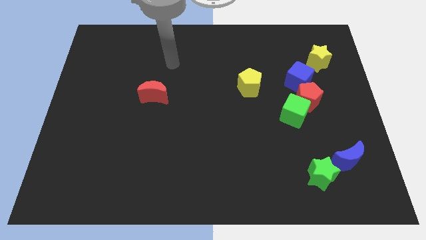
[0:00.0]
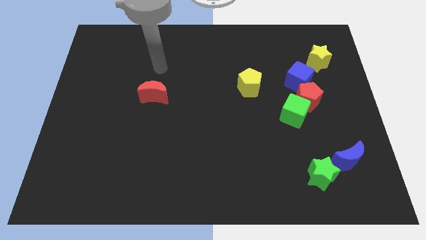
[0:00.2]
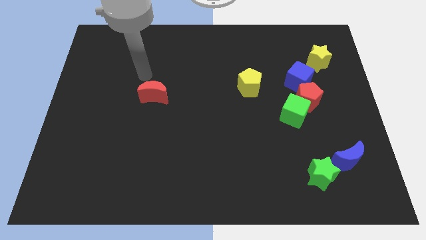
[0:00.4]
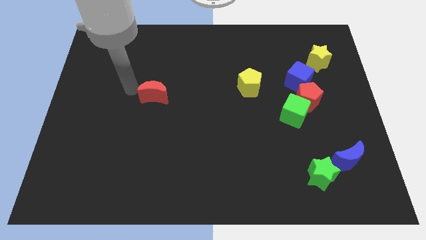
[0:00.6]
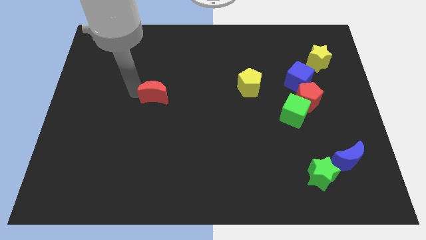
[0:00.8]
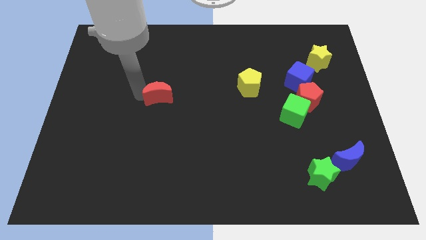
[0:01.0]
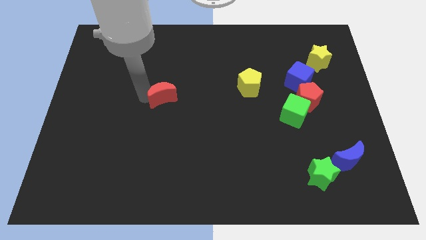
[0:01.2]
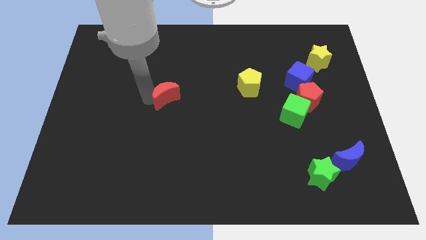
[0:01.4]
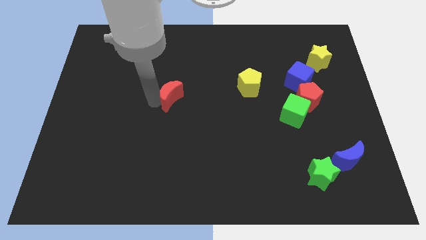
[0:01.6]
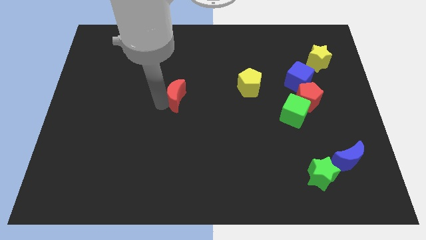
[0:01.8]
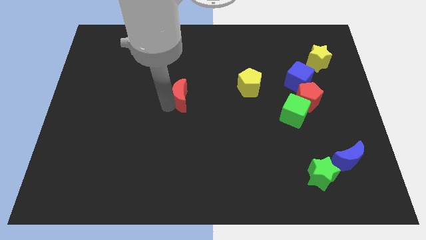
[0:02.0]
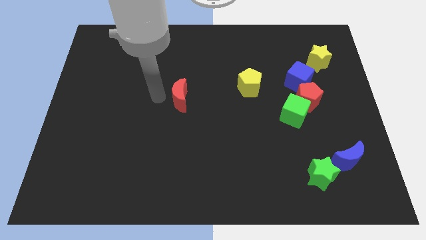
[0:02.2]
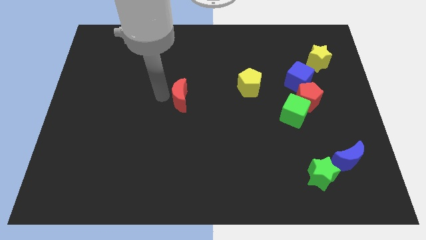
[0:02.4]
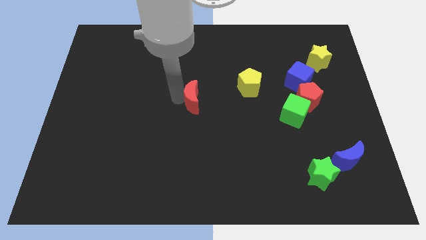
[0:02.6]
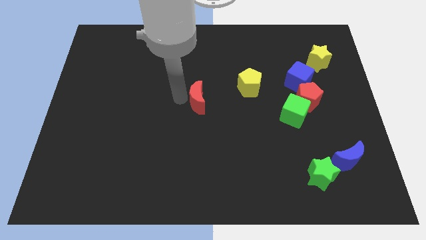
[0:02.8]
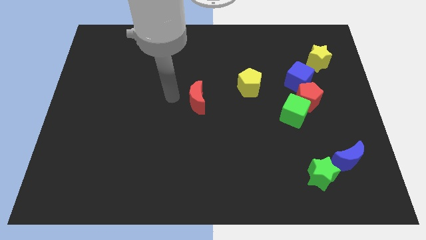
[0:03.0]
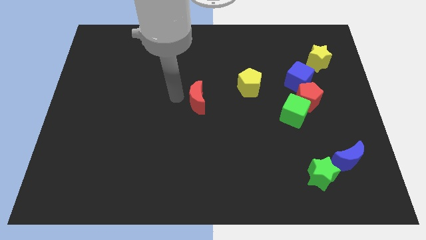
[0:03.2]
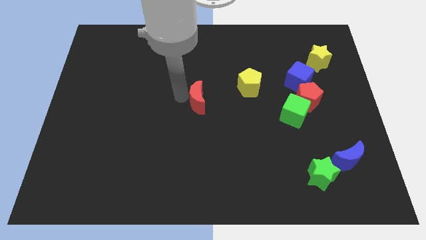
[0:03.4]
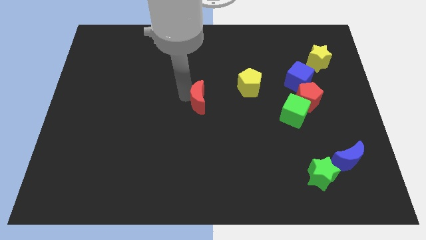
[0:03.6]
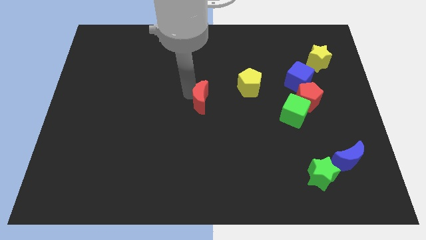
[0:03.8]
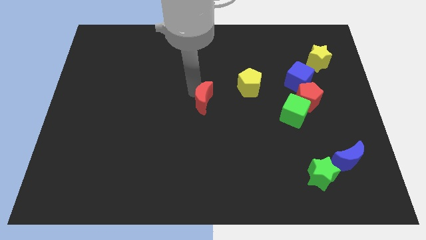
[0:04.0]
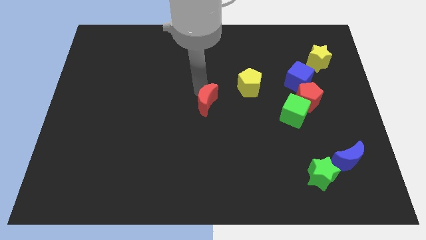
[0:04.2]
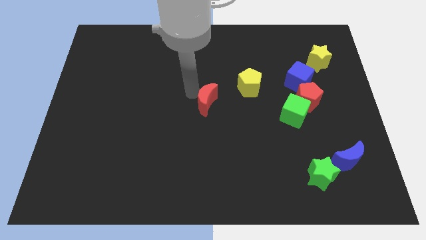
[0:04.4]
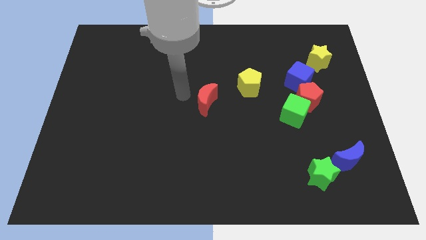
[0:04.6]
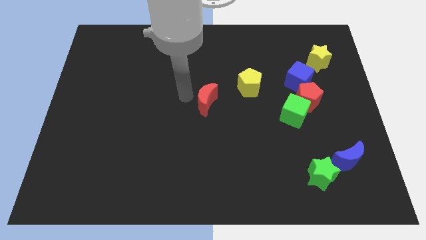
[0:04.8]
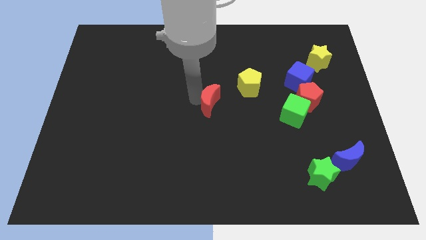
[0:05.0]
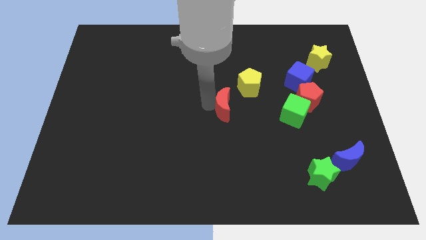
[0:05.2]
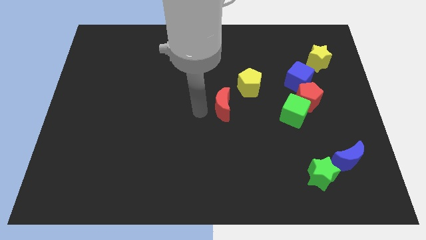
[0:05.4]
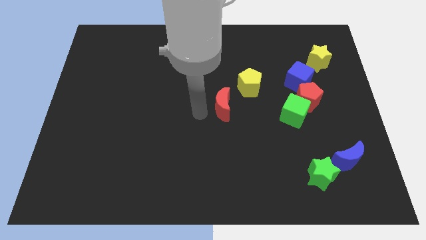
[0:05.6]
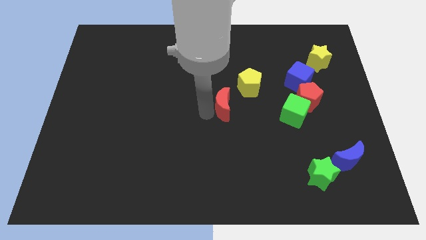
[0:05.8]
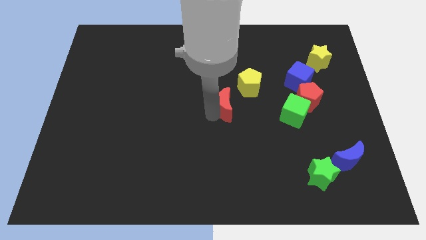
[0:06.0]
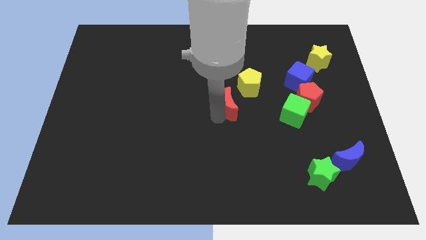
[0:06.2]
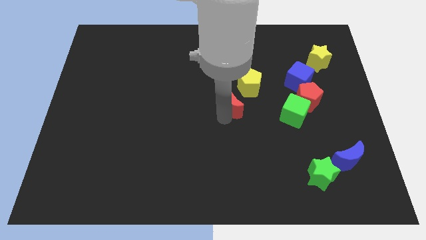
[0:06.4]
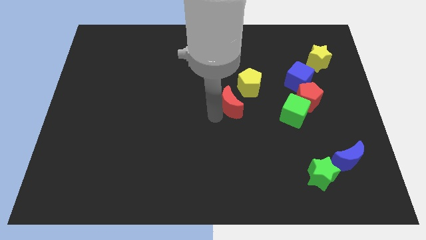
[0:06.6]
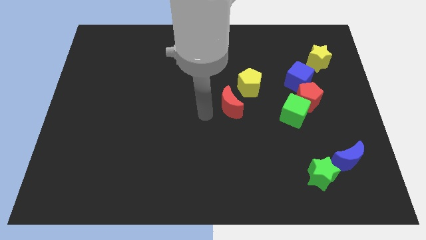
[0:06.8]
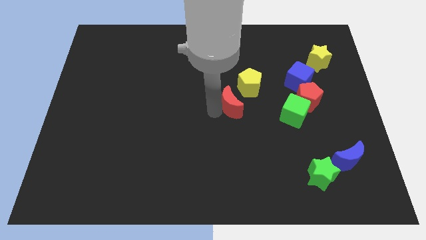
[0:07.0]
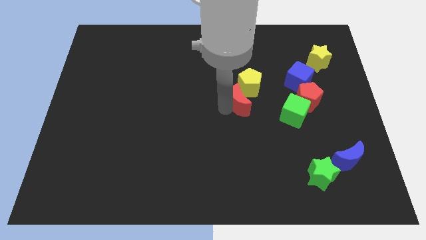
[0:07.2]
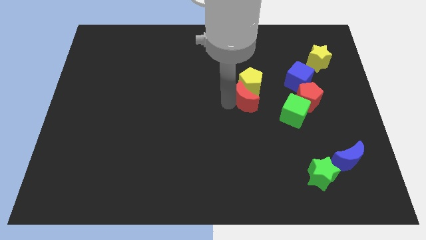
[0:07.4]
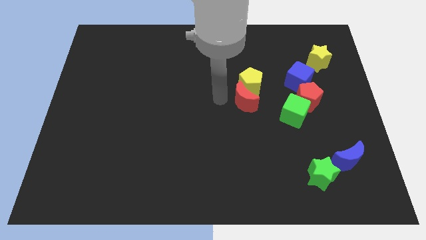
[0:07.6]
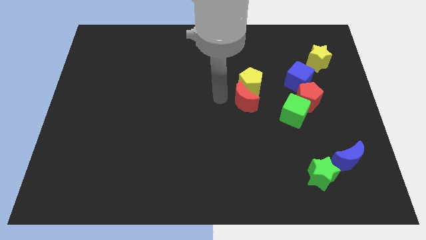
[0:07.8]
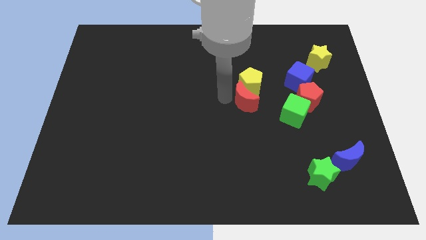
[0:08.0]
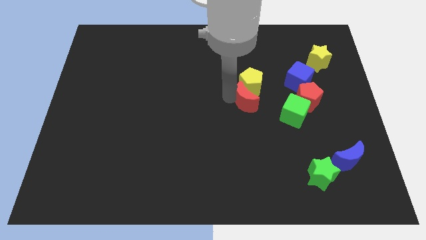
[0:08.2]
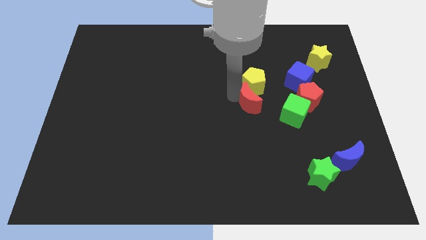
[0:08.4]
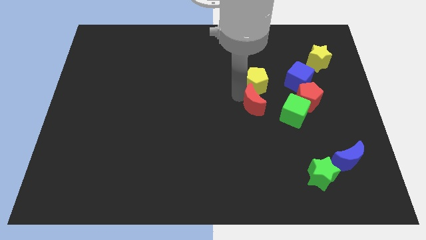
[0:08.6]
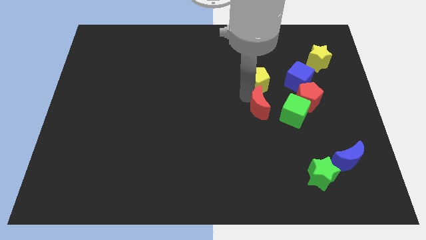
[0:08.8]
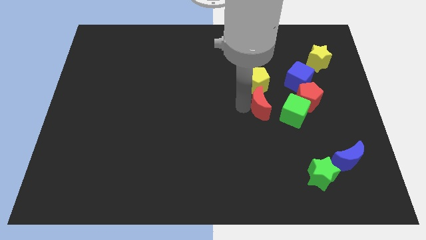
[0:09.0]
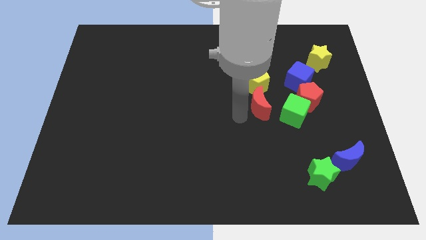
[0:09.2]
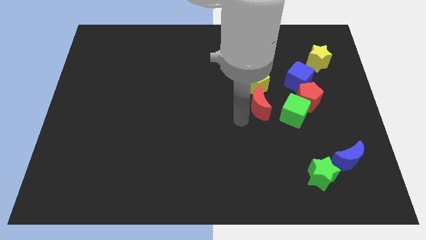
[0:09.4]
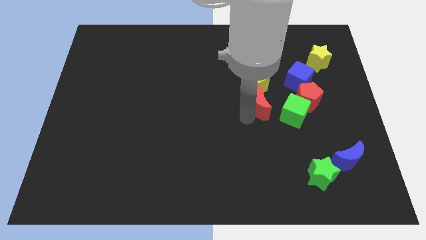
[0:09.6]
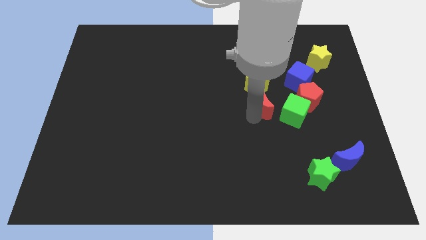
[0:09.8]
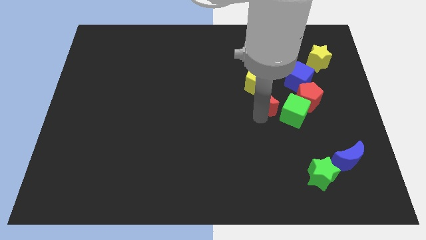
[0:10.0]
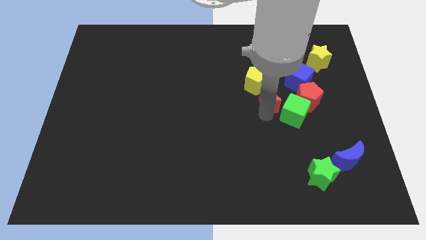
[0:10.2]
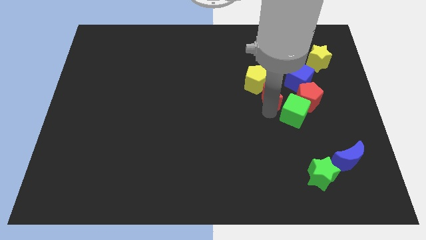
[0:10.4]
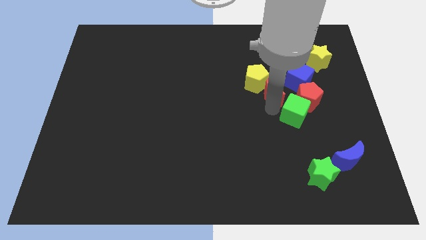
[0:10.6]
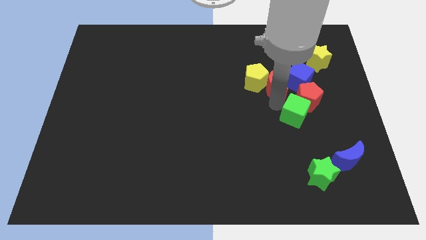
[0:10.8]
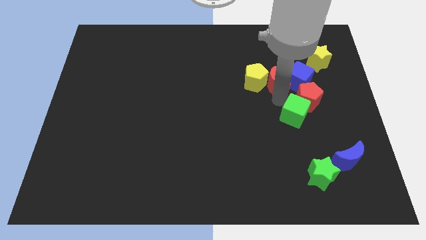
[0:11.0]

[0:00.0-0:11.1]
push the red moon next to the blue cube

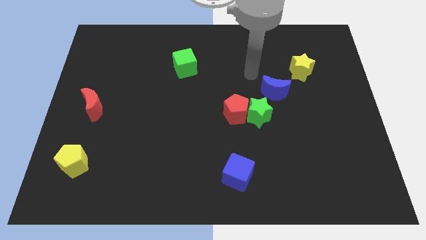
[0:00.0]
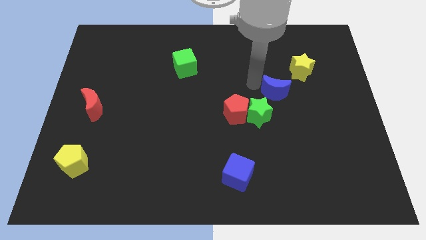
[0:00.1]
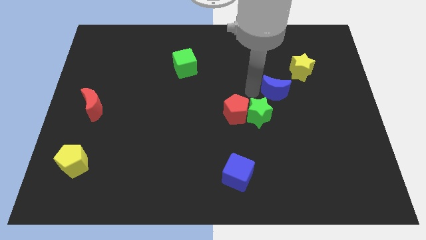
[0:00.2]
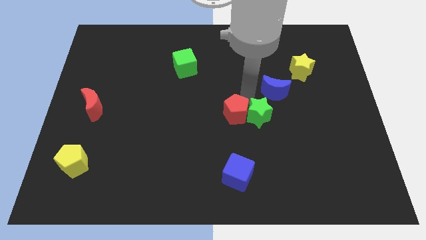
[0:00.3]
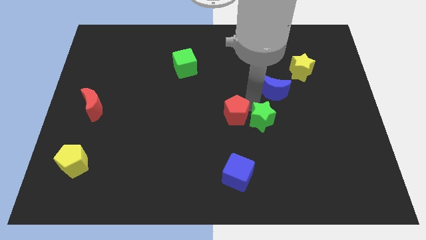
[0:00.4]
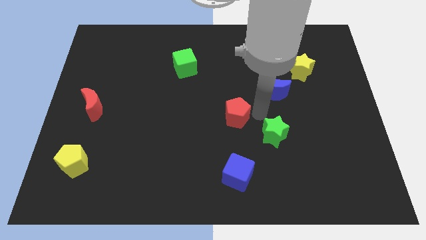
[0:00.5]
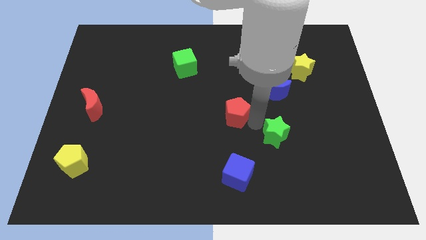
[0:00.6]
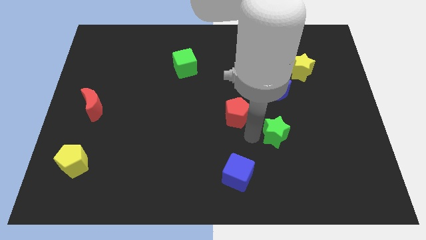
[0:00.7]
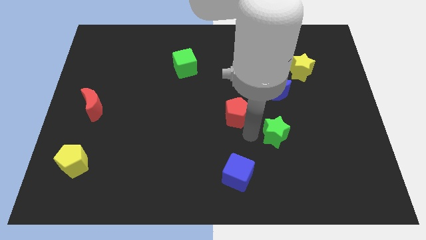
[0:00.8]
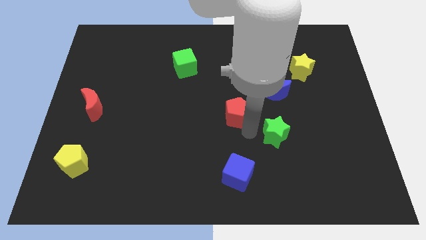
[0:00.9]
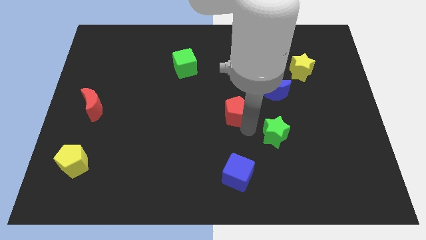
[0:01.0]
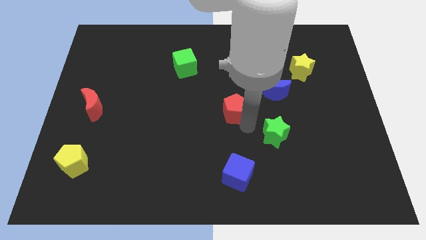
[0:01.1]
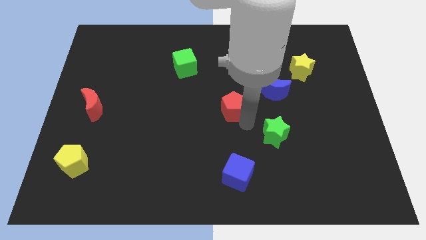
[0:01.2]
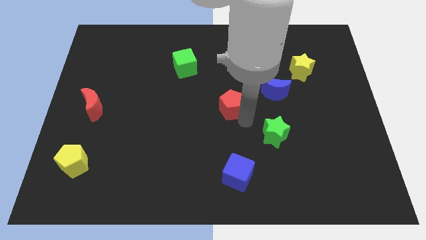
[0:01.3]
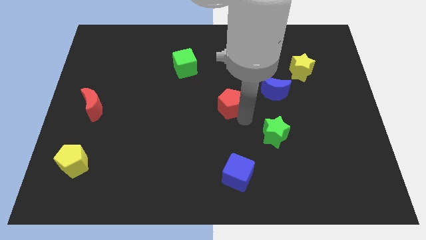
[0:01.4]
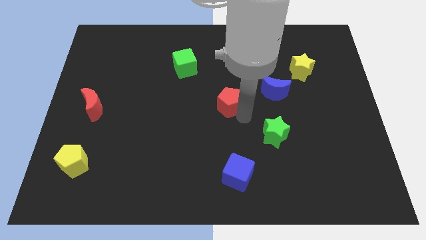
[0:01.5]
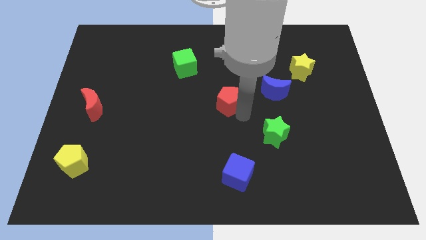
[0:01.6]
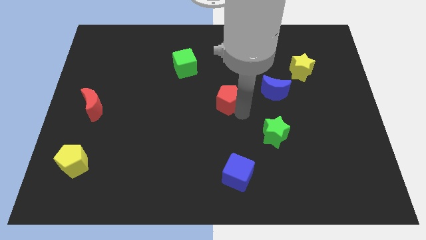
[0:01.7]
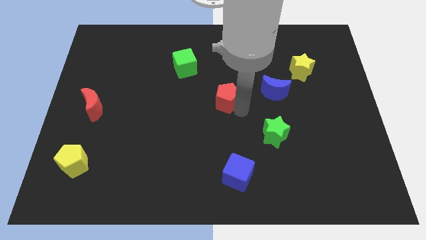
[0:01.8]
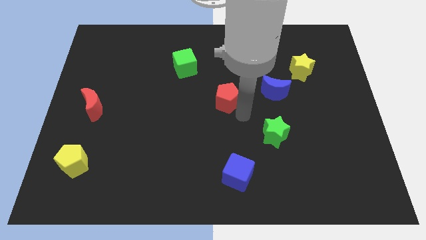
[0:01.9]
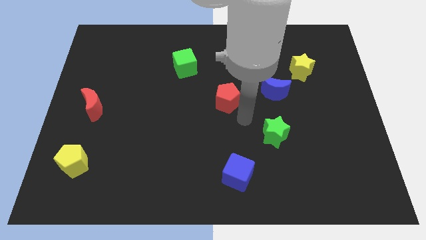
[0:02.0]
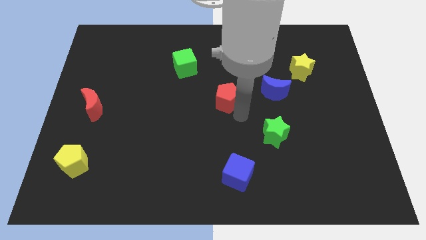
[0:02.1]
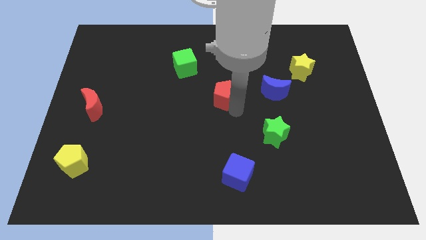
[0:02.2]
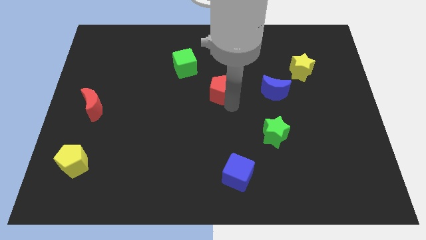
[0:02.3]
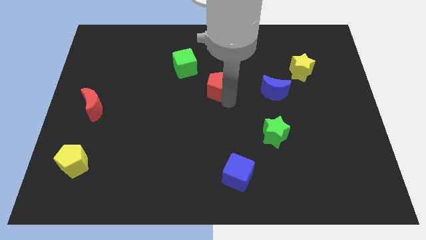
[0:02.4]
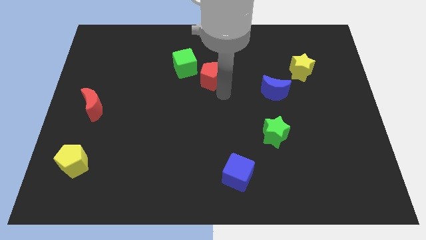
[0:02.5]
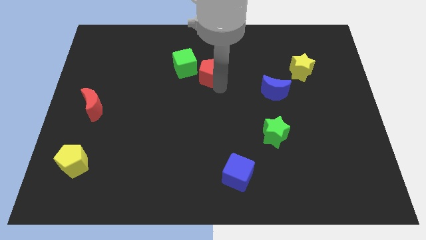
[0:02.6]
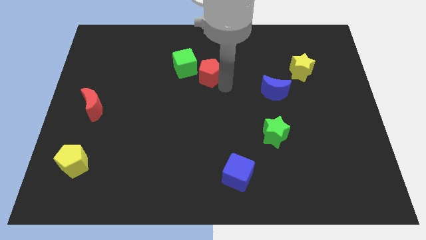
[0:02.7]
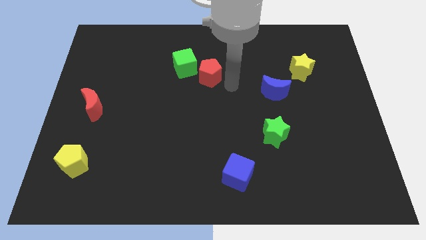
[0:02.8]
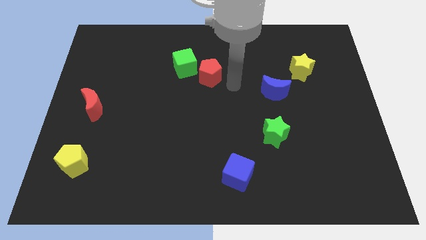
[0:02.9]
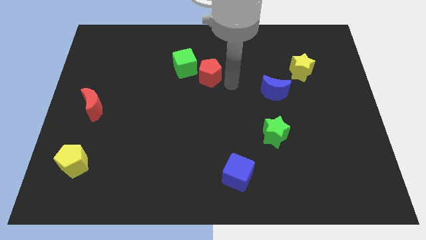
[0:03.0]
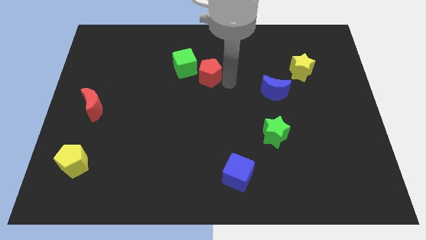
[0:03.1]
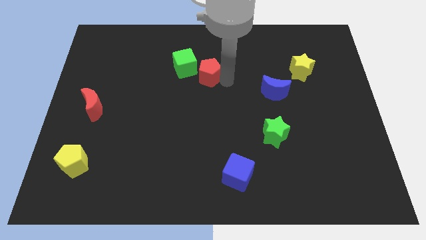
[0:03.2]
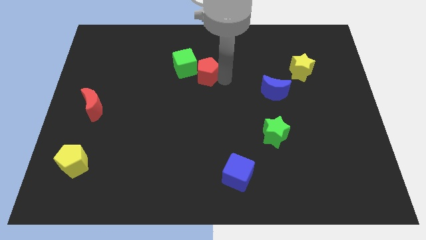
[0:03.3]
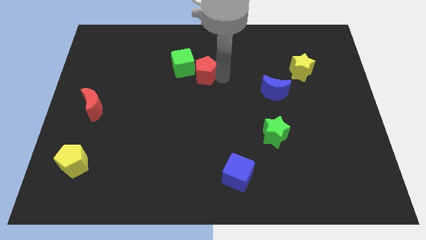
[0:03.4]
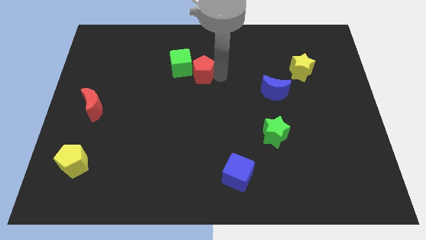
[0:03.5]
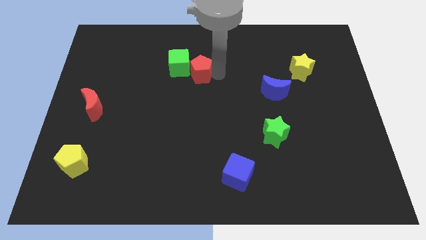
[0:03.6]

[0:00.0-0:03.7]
move the red pentagon next to the green cube
